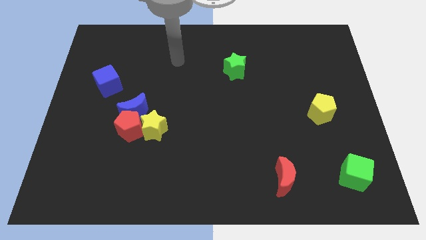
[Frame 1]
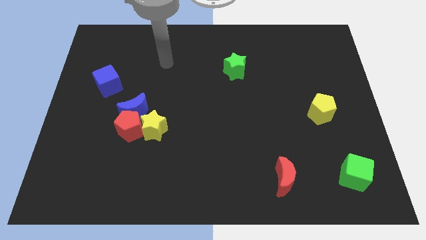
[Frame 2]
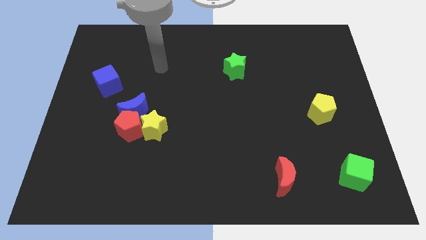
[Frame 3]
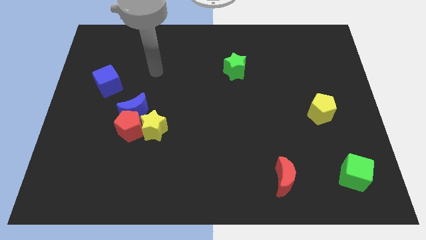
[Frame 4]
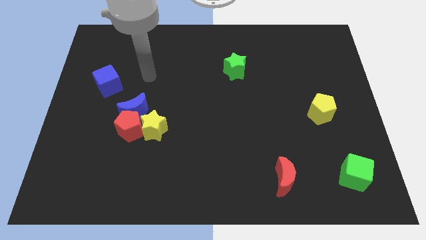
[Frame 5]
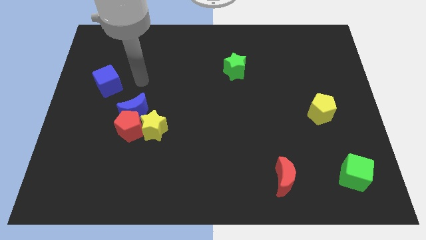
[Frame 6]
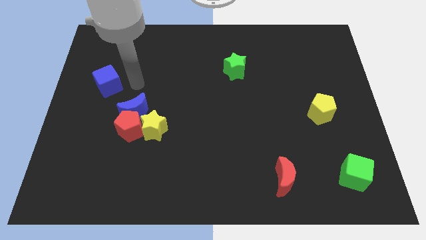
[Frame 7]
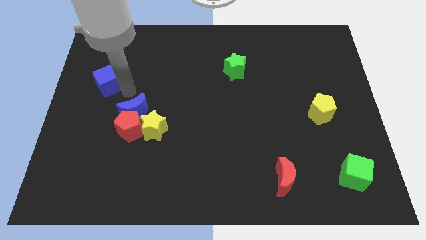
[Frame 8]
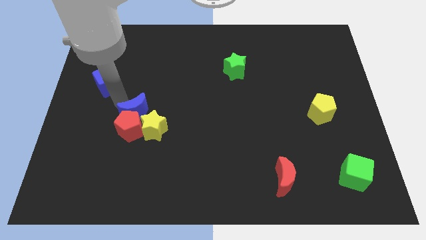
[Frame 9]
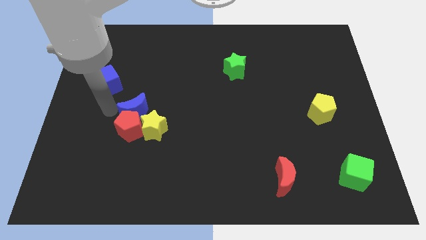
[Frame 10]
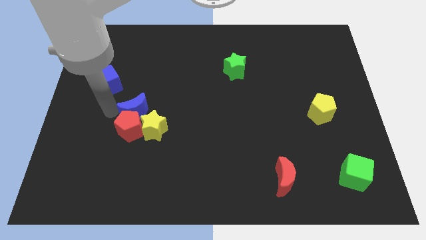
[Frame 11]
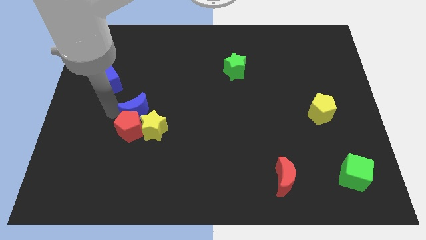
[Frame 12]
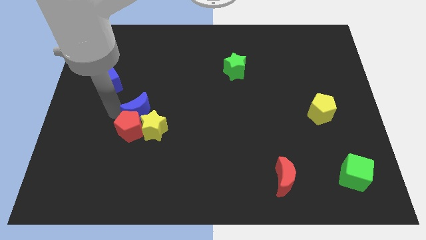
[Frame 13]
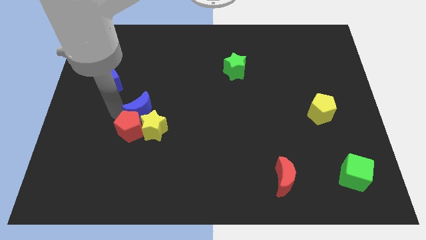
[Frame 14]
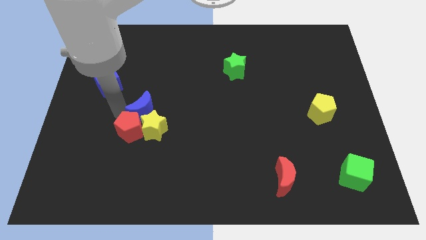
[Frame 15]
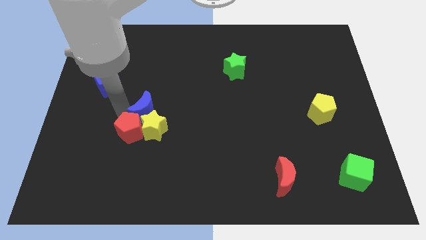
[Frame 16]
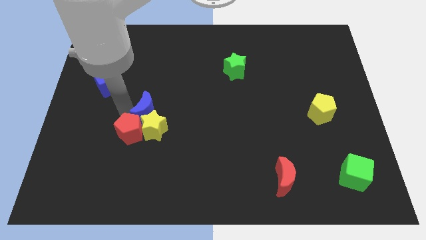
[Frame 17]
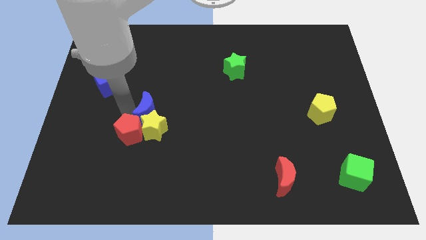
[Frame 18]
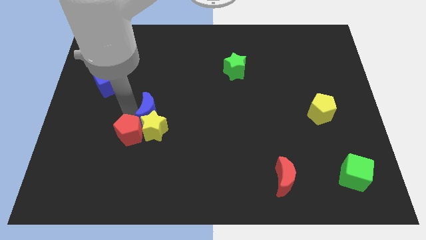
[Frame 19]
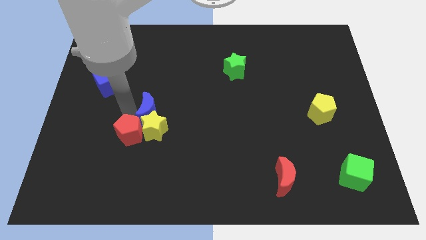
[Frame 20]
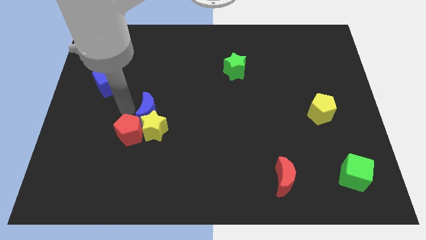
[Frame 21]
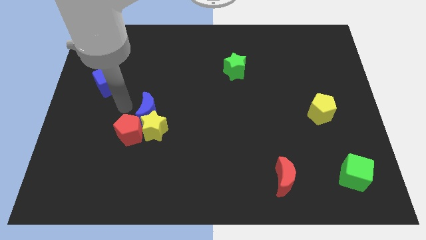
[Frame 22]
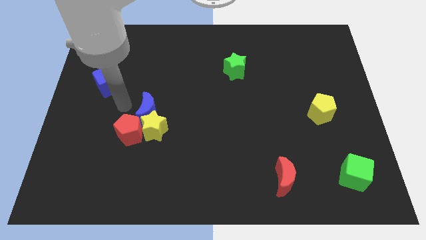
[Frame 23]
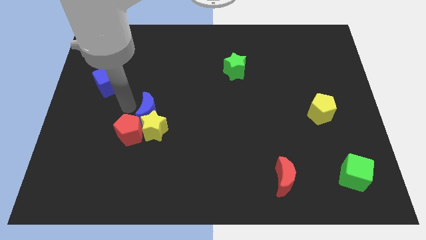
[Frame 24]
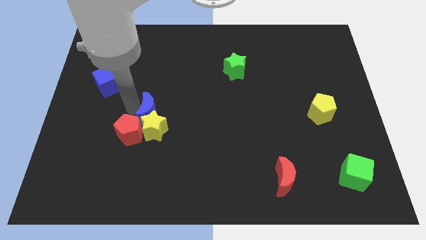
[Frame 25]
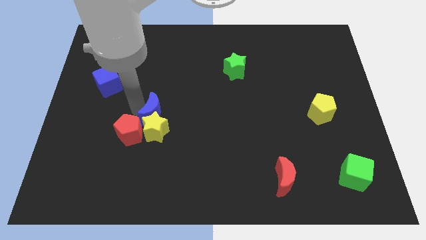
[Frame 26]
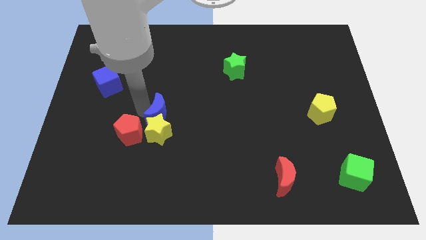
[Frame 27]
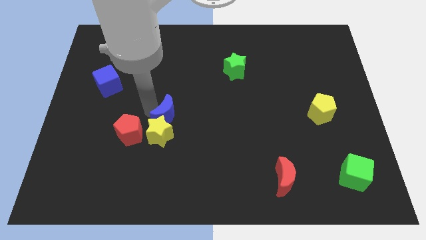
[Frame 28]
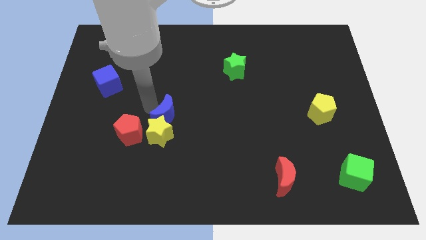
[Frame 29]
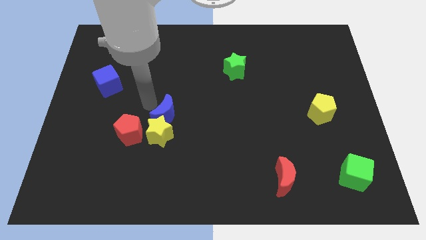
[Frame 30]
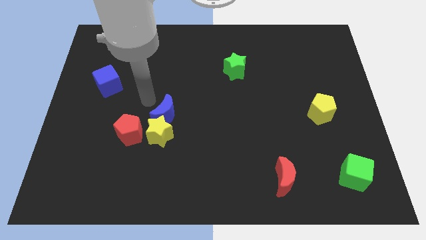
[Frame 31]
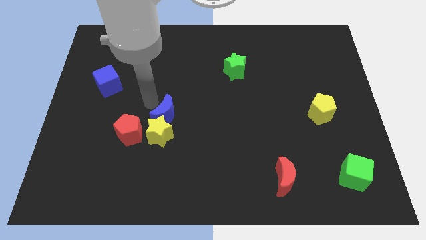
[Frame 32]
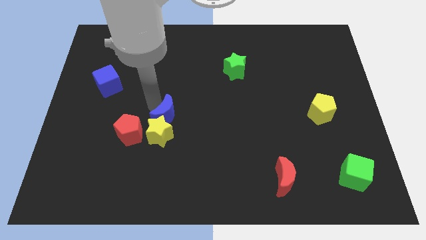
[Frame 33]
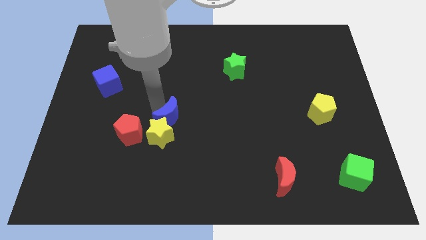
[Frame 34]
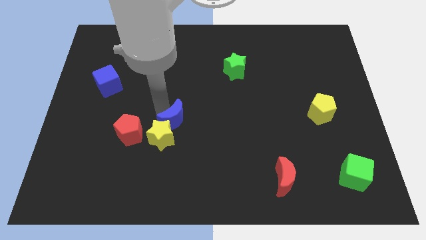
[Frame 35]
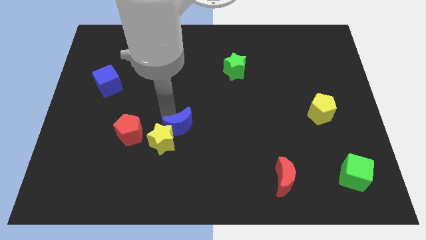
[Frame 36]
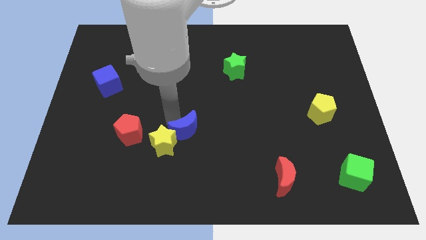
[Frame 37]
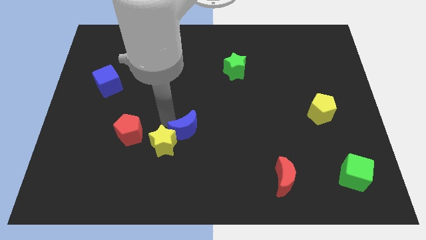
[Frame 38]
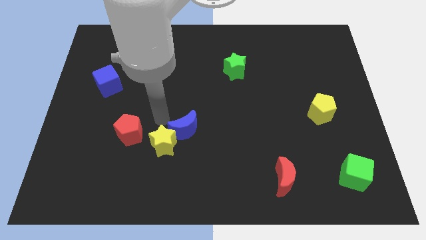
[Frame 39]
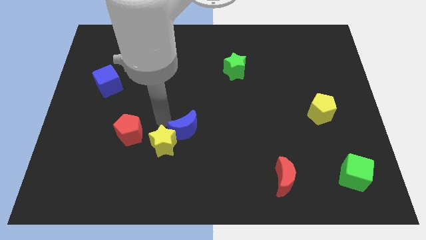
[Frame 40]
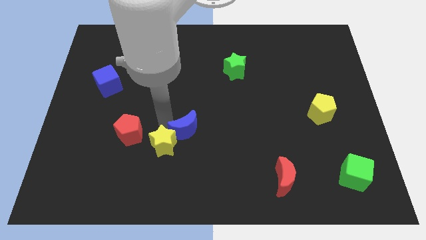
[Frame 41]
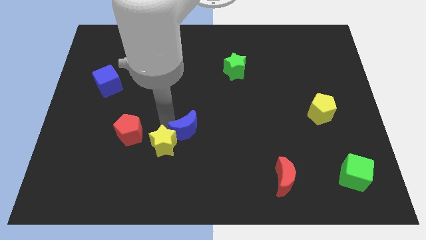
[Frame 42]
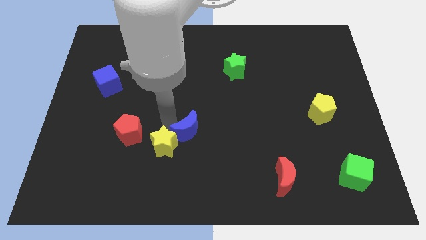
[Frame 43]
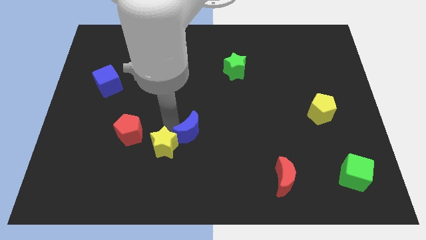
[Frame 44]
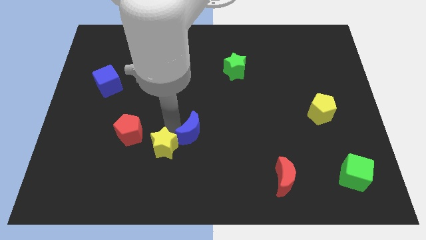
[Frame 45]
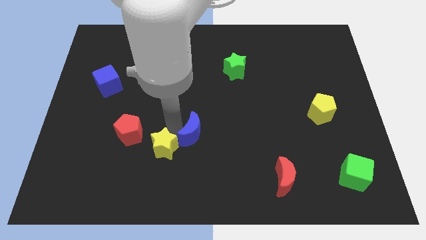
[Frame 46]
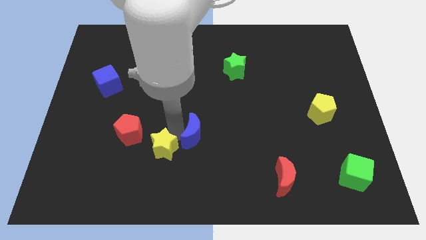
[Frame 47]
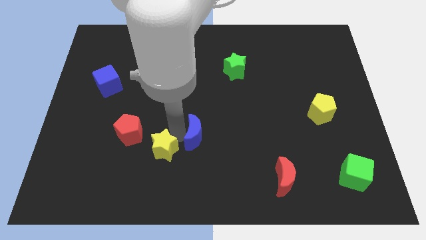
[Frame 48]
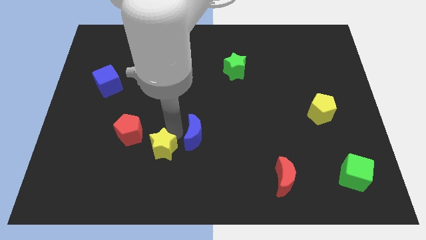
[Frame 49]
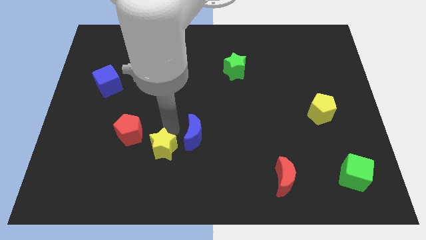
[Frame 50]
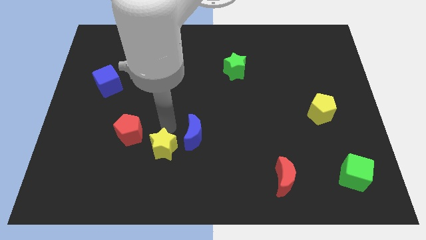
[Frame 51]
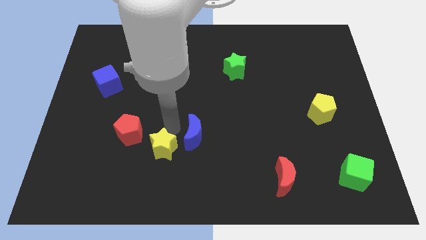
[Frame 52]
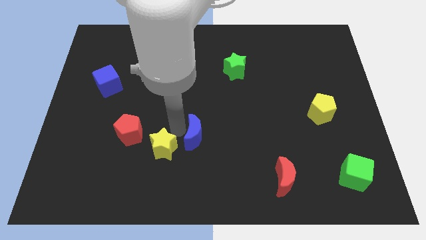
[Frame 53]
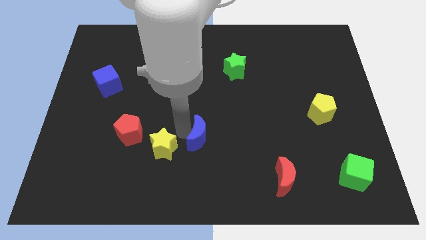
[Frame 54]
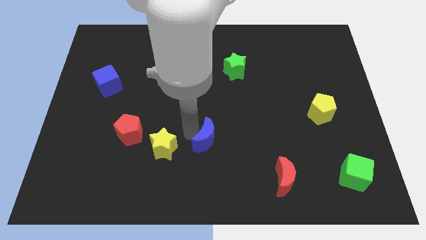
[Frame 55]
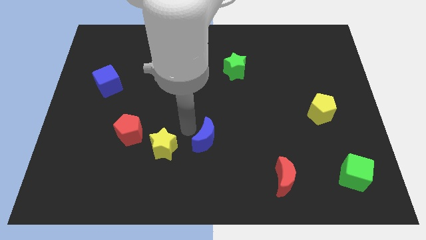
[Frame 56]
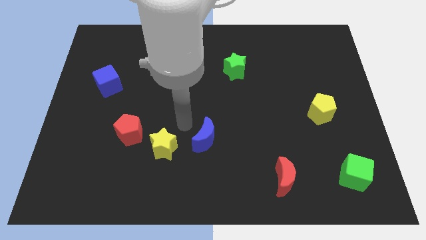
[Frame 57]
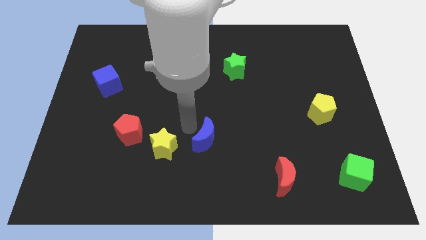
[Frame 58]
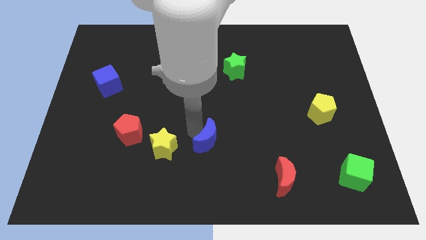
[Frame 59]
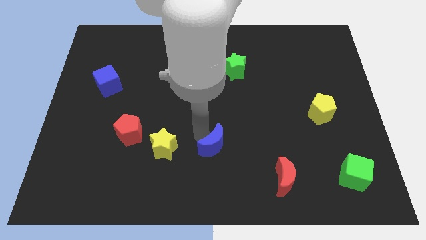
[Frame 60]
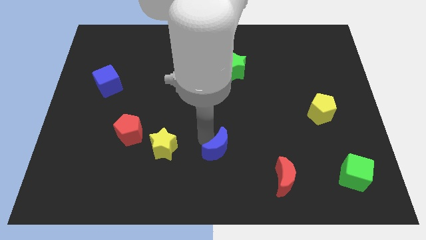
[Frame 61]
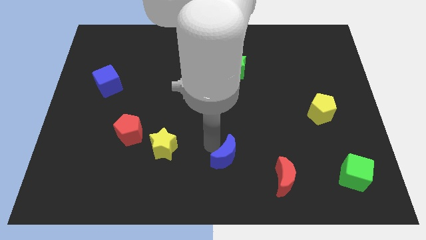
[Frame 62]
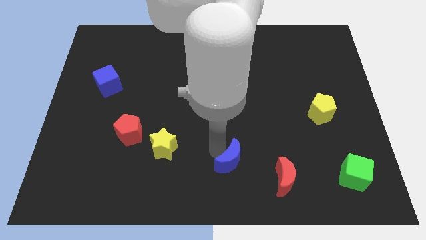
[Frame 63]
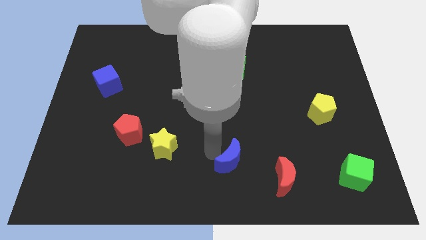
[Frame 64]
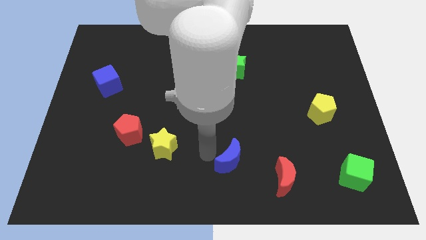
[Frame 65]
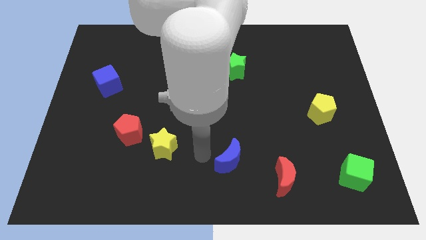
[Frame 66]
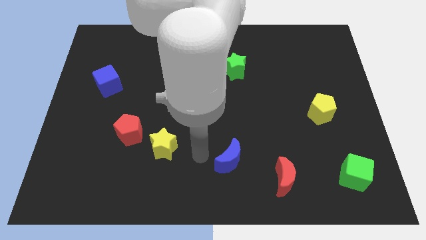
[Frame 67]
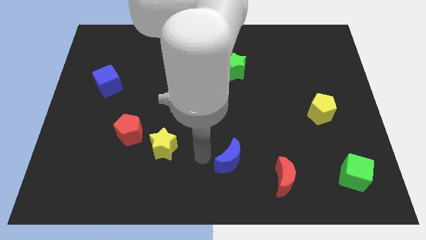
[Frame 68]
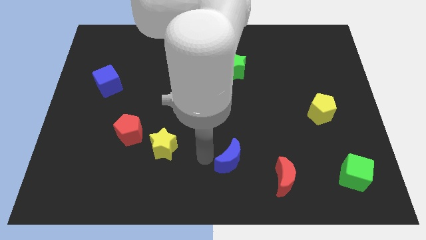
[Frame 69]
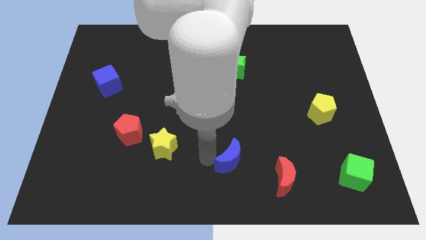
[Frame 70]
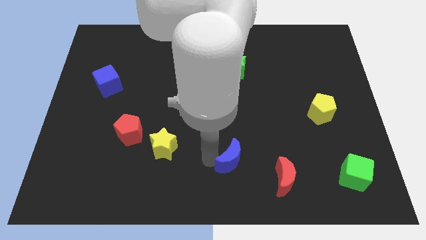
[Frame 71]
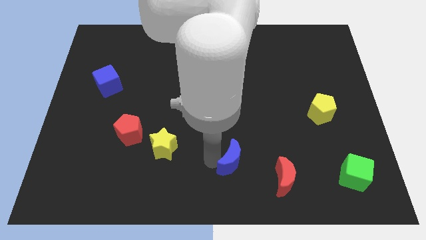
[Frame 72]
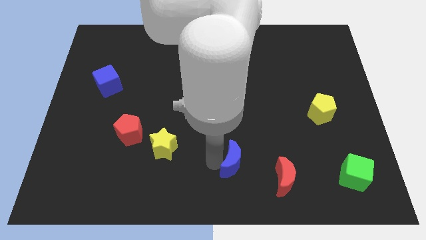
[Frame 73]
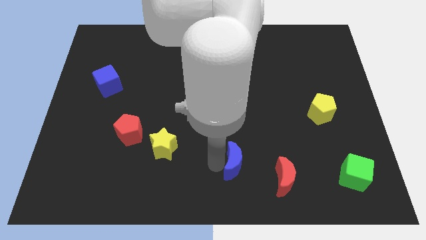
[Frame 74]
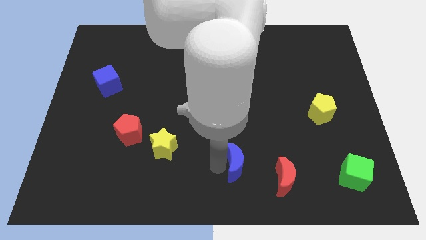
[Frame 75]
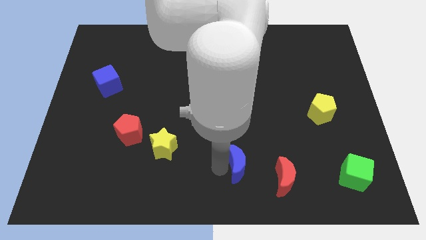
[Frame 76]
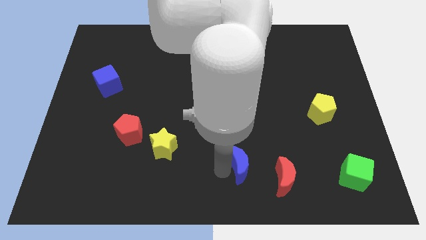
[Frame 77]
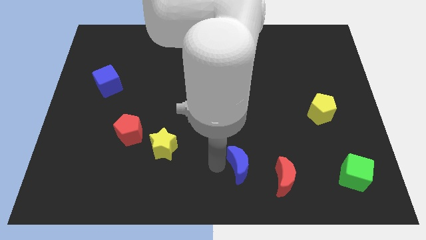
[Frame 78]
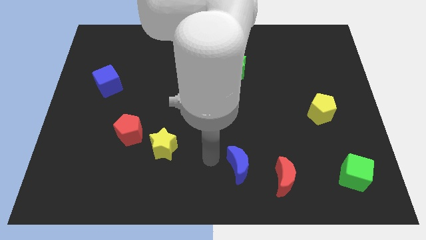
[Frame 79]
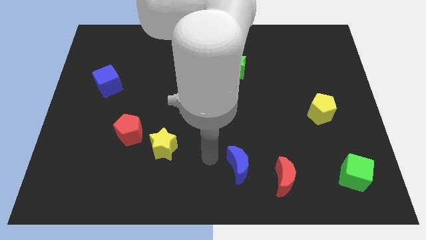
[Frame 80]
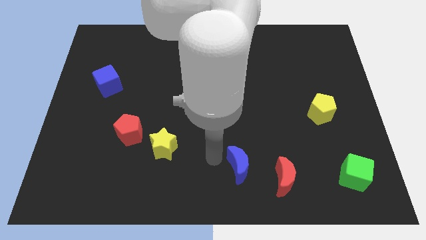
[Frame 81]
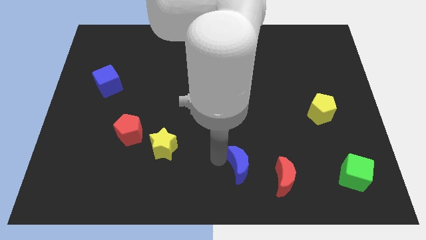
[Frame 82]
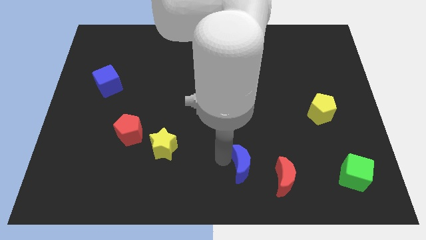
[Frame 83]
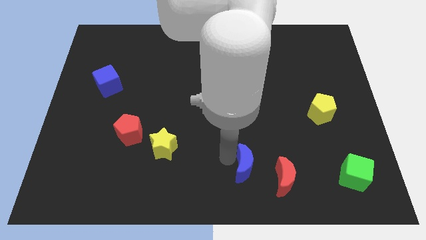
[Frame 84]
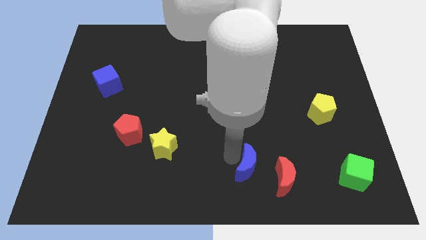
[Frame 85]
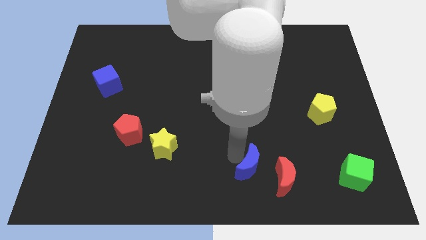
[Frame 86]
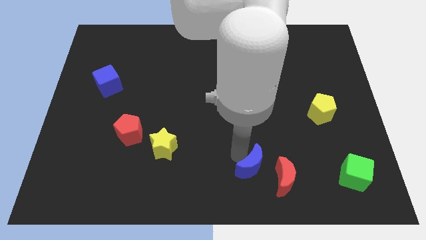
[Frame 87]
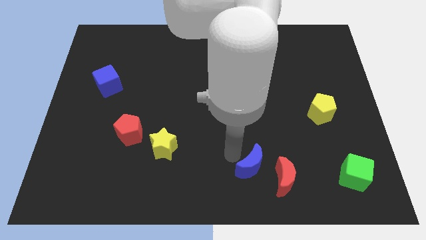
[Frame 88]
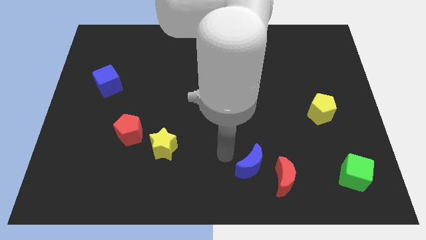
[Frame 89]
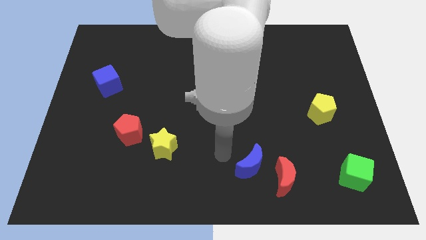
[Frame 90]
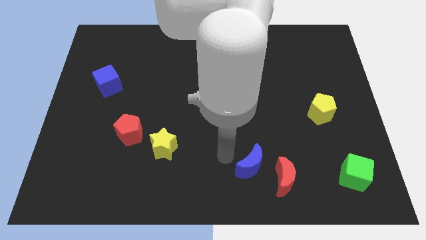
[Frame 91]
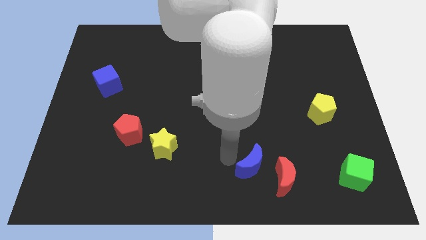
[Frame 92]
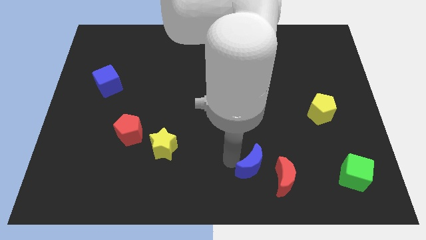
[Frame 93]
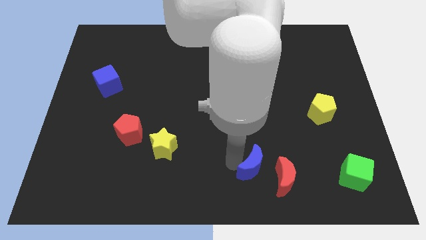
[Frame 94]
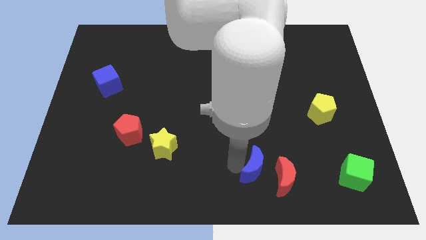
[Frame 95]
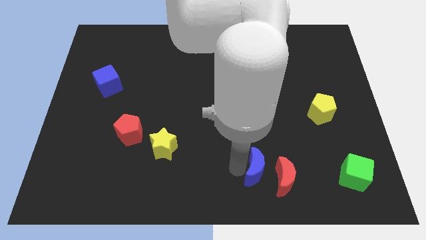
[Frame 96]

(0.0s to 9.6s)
slide the blue moon close to the red moon
